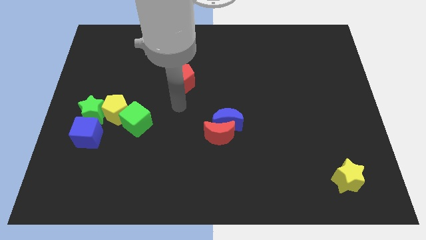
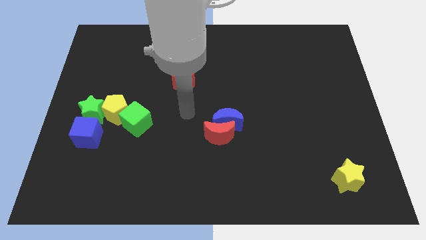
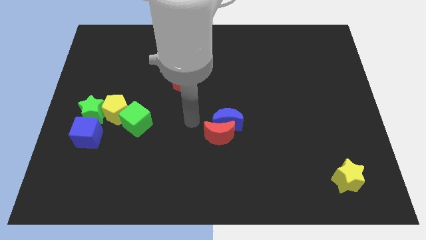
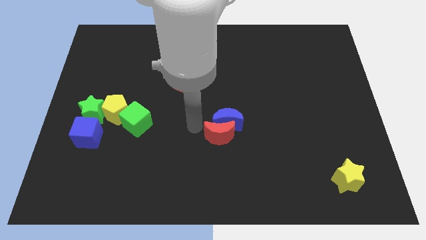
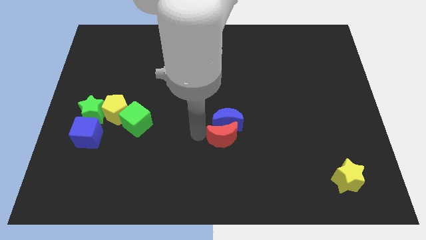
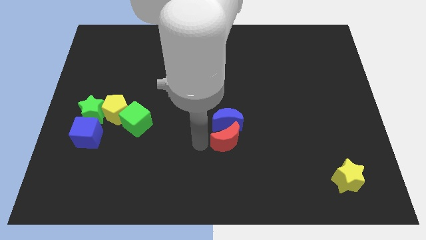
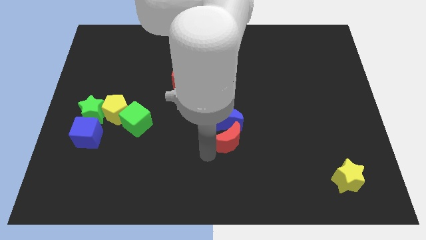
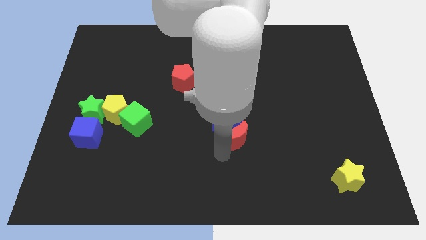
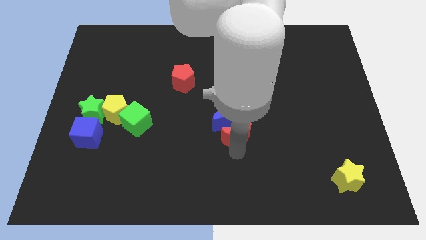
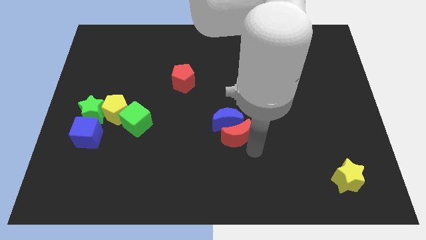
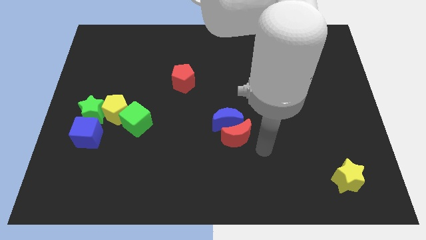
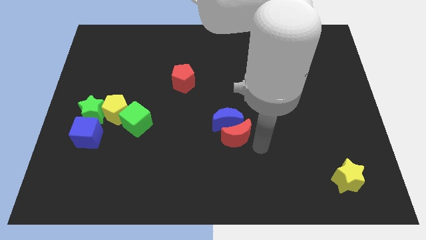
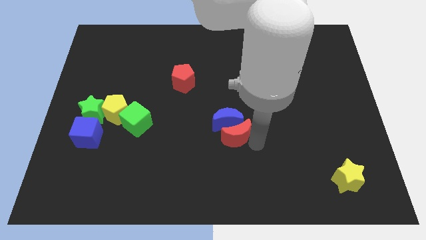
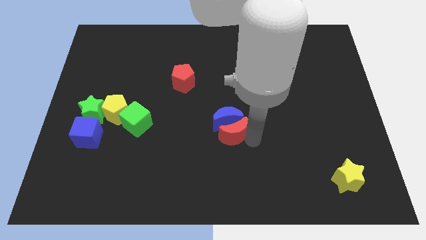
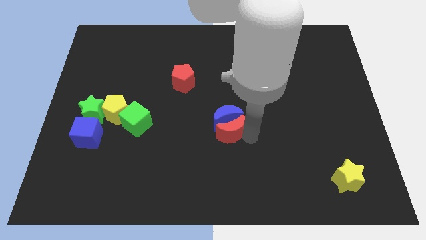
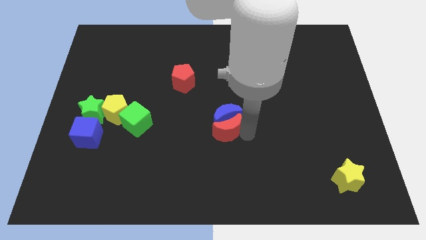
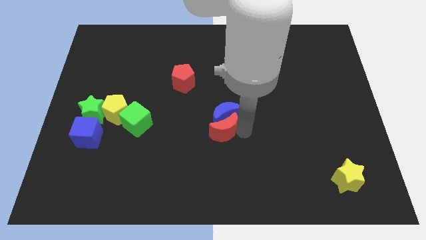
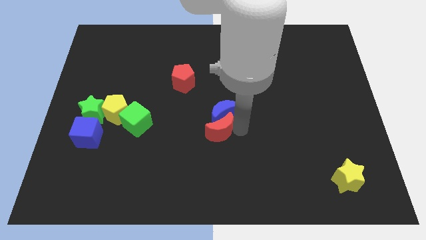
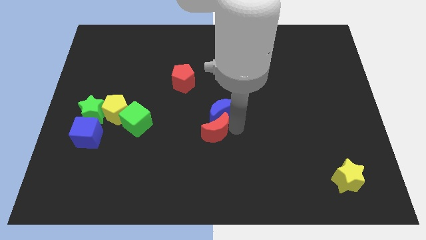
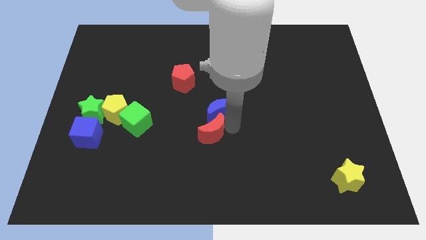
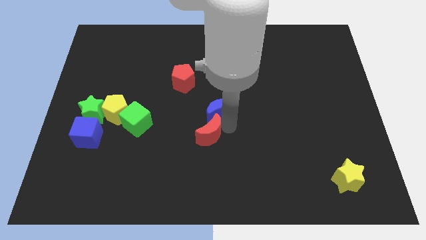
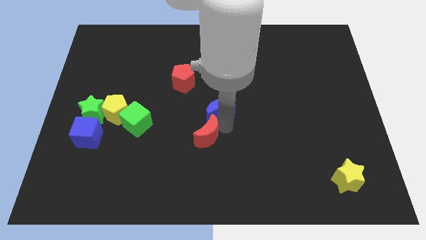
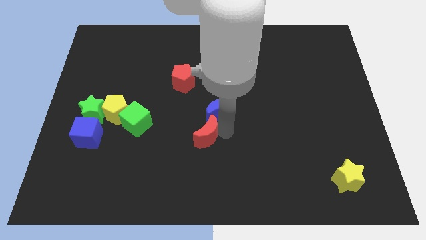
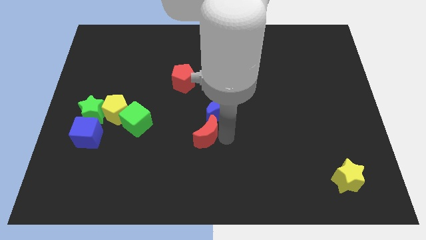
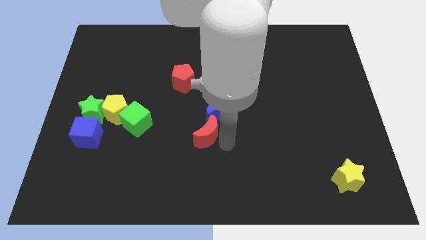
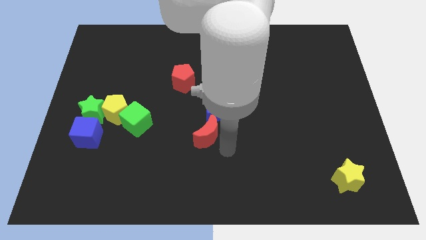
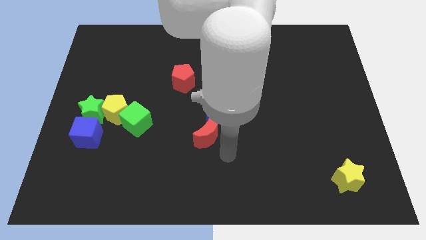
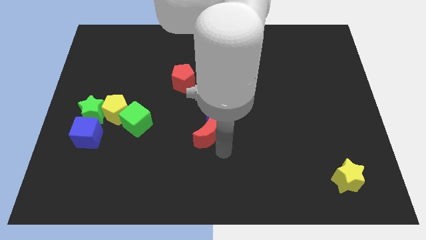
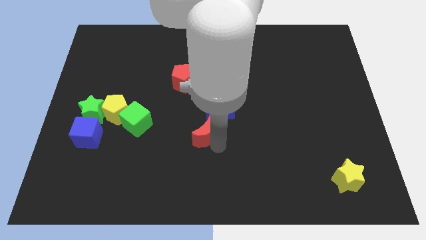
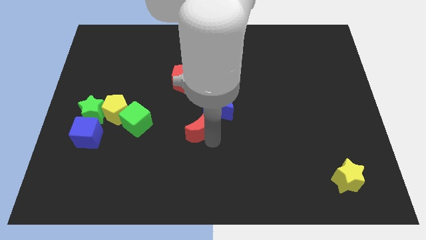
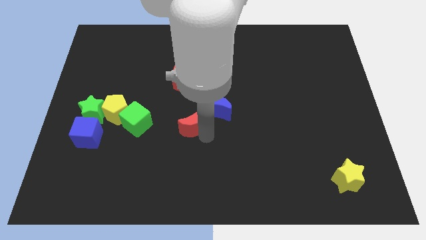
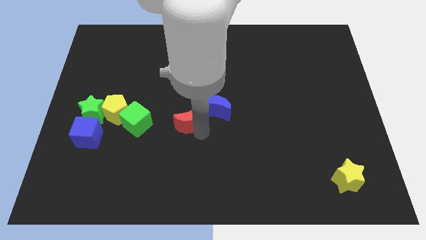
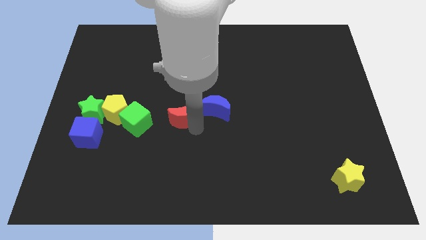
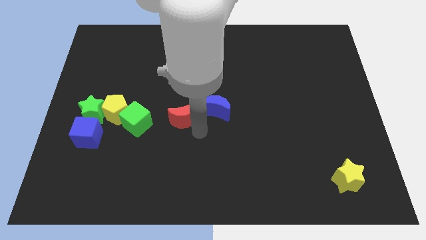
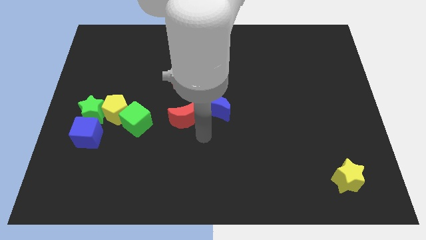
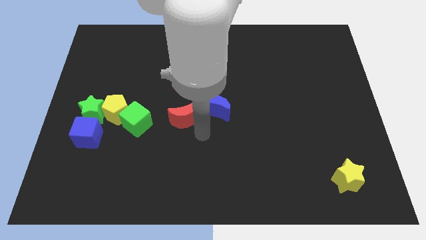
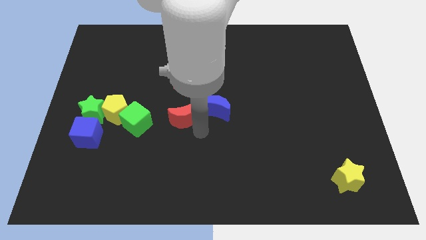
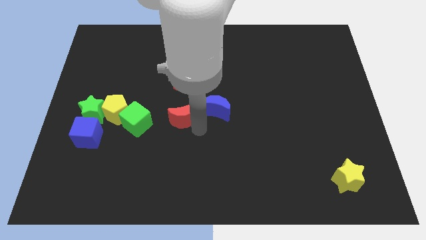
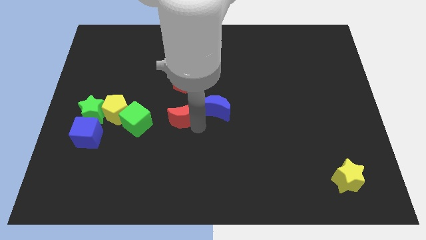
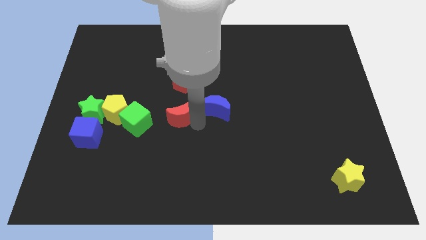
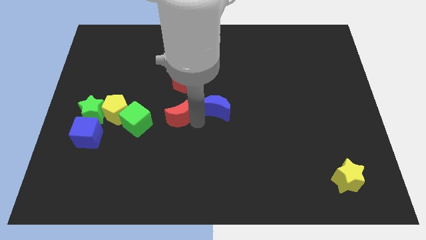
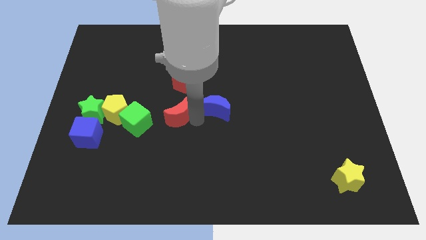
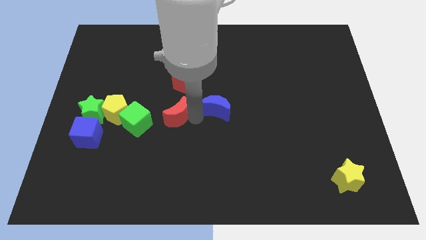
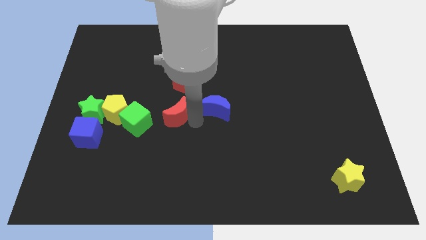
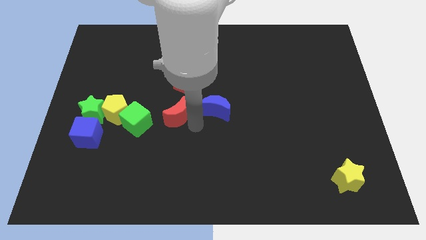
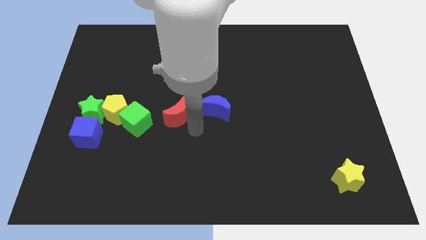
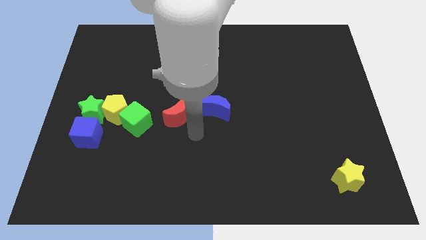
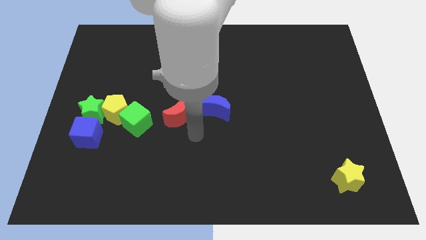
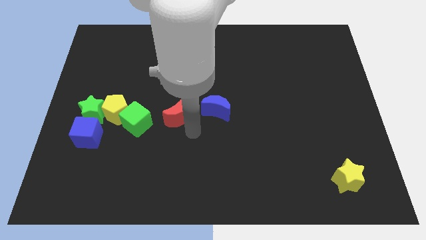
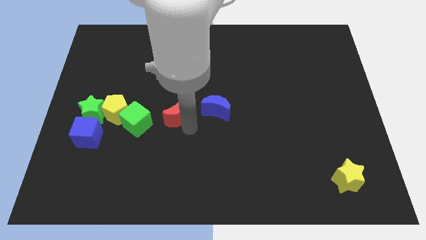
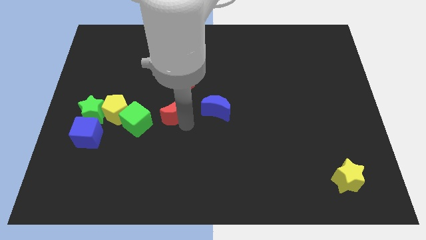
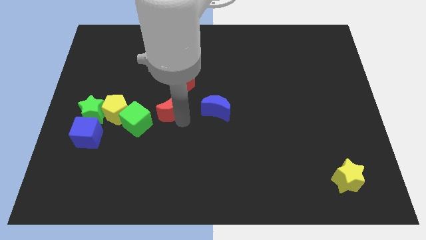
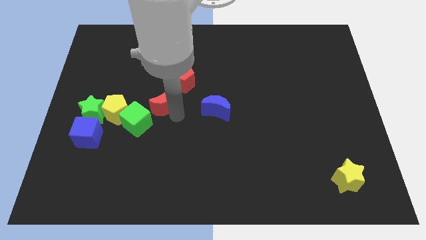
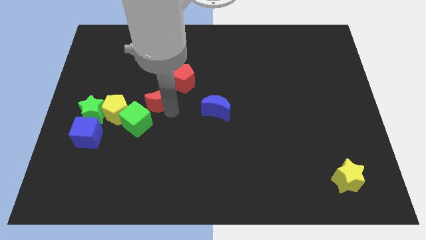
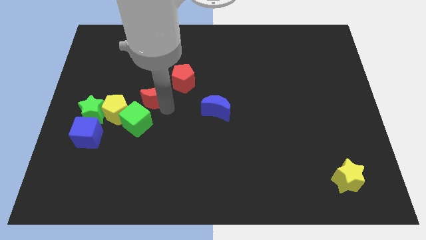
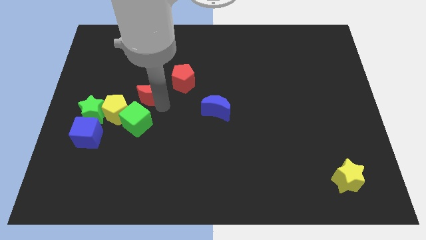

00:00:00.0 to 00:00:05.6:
put the red moon to the left of the red pentagon

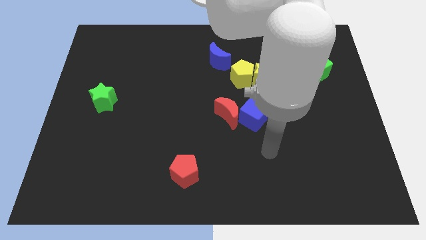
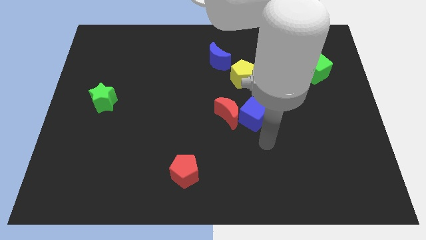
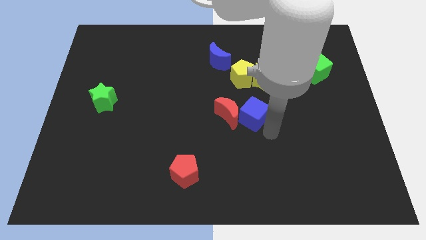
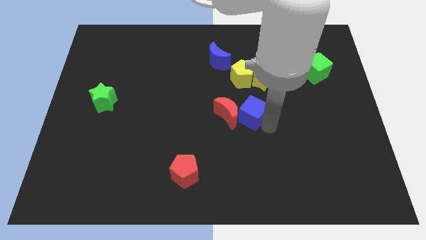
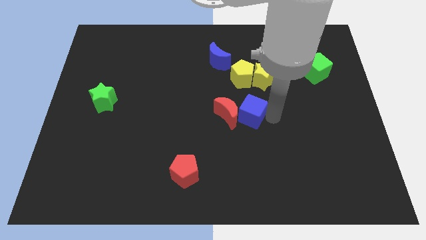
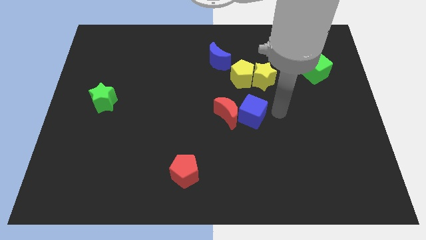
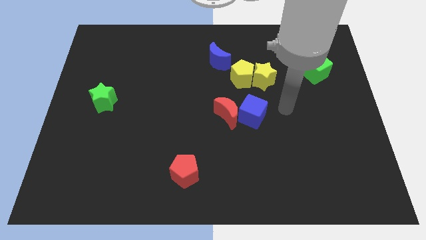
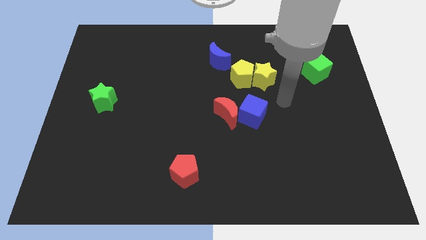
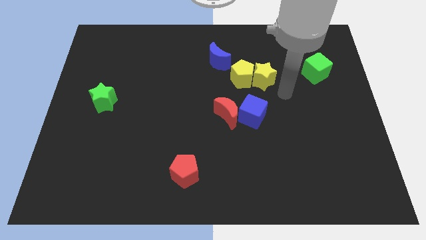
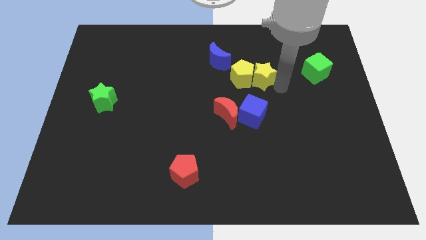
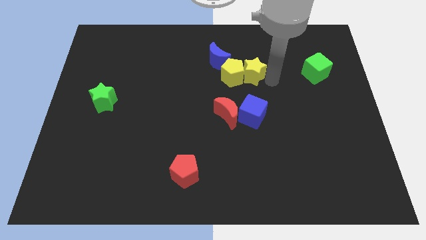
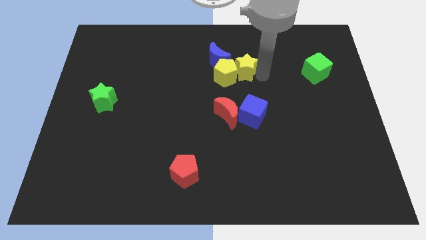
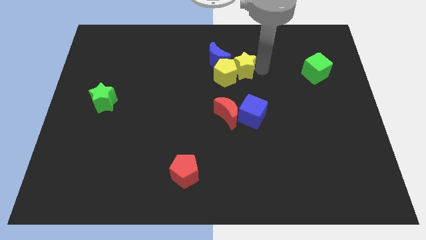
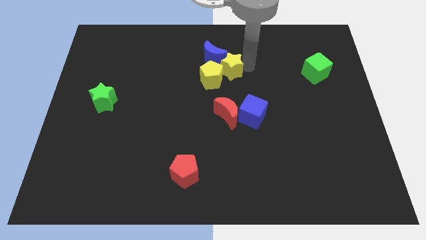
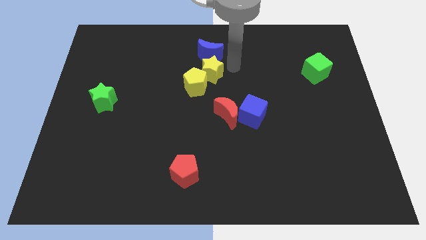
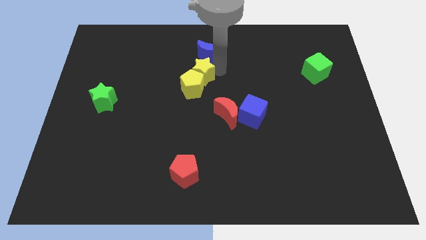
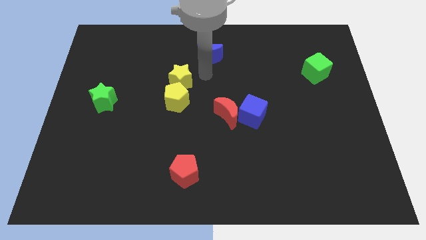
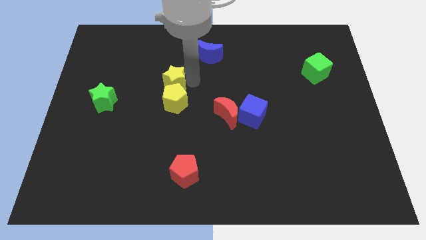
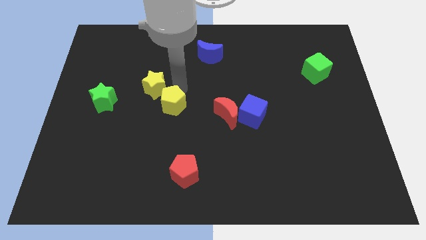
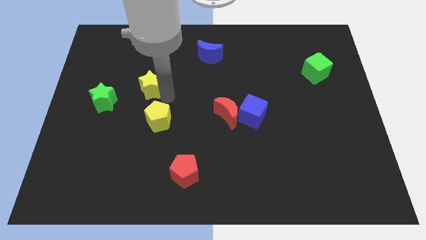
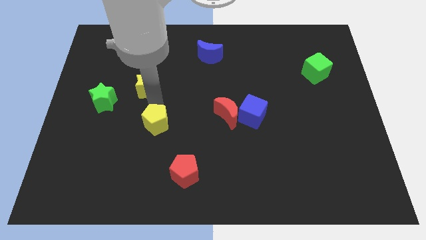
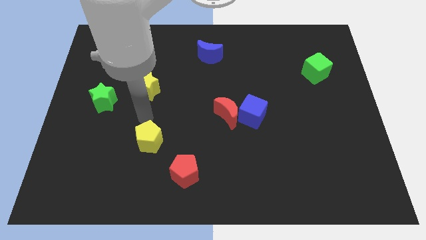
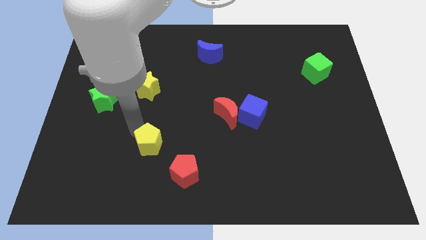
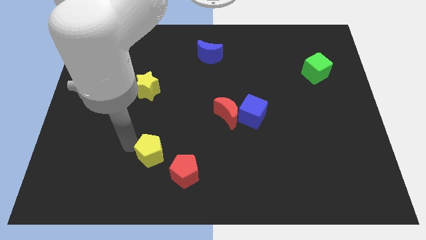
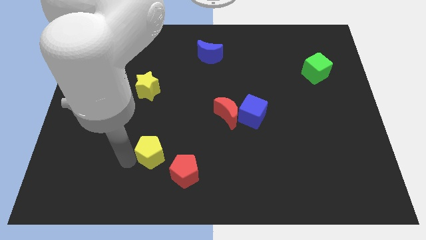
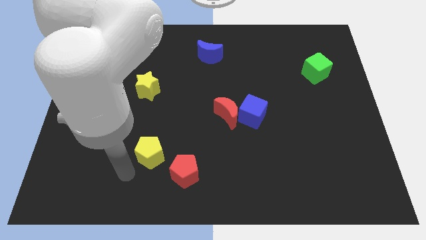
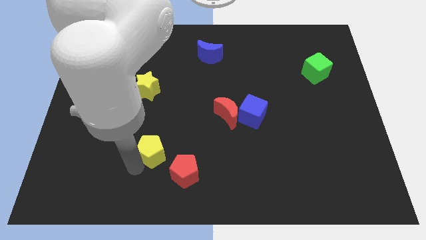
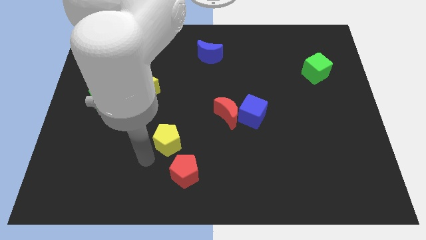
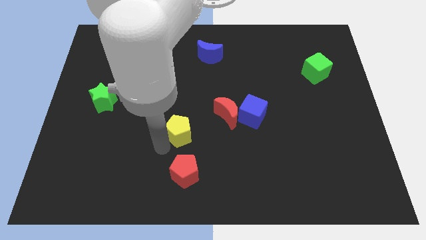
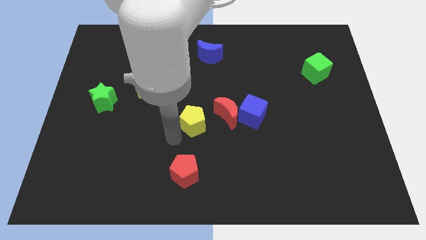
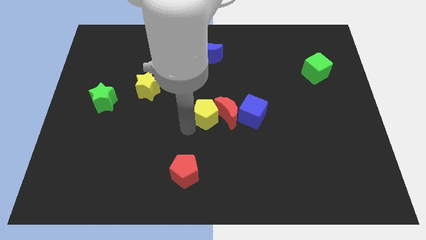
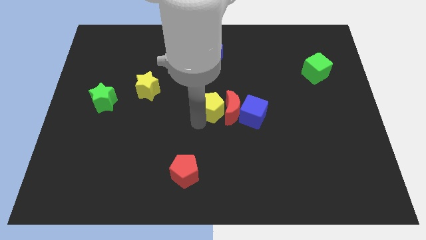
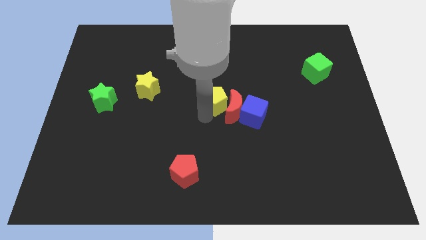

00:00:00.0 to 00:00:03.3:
put the yellow pentagon to the top left of the blue cube
